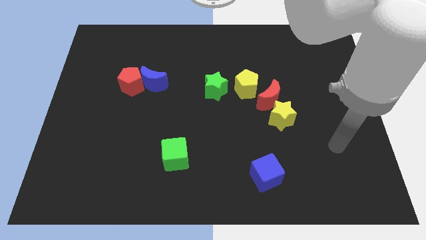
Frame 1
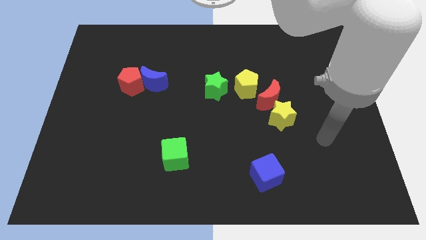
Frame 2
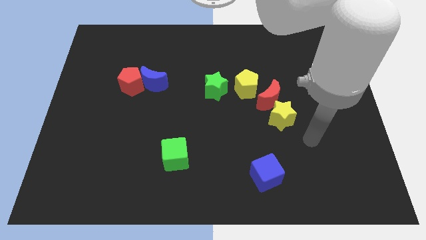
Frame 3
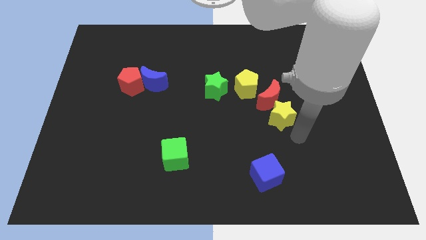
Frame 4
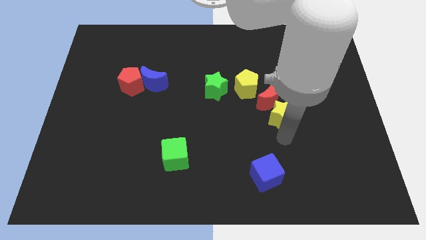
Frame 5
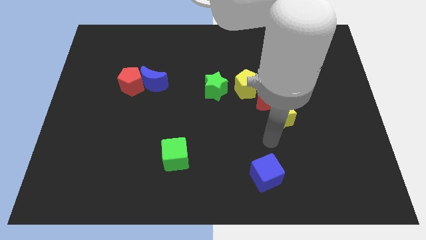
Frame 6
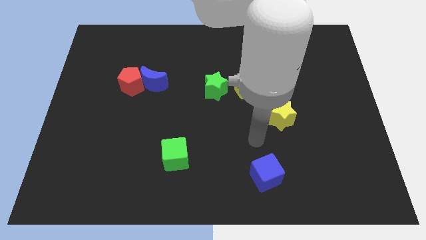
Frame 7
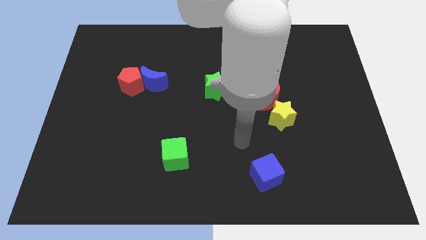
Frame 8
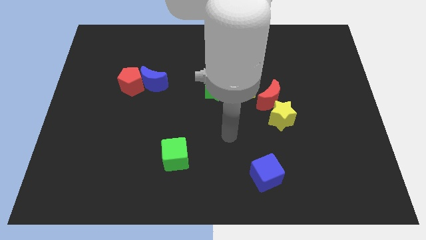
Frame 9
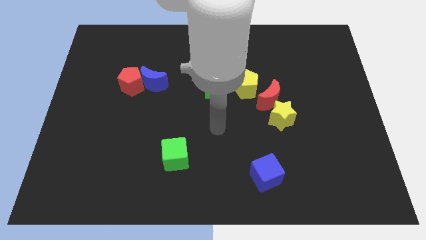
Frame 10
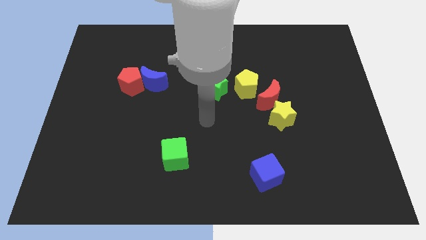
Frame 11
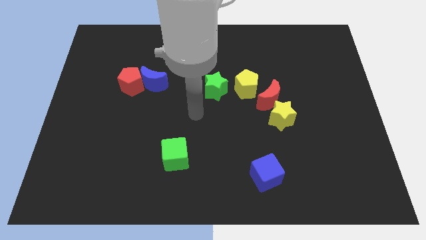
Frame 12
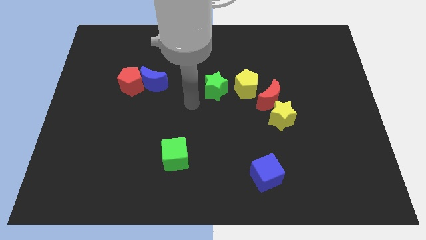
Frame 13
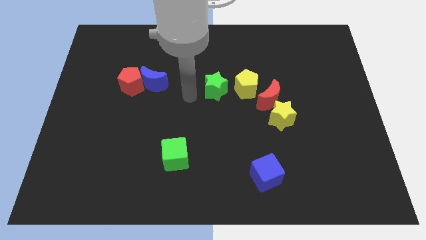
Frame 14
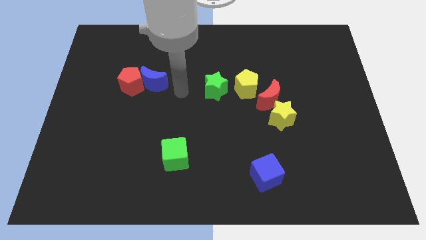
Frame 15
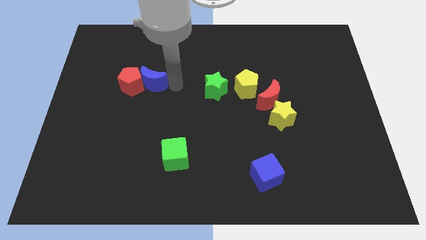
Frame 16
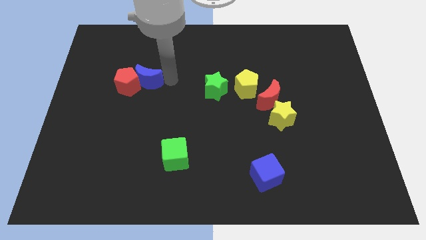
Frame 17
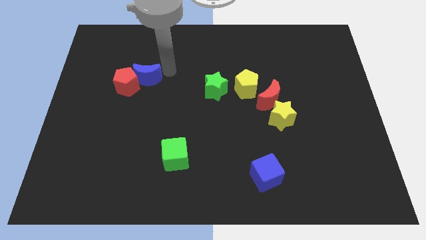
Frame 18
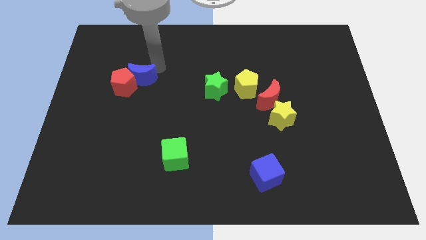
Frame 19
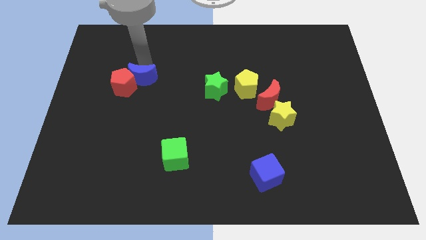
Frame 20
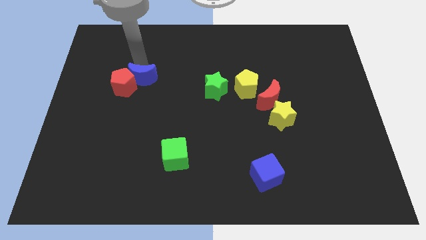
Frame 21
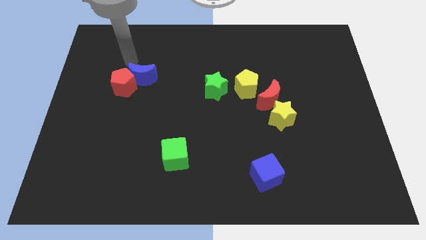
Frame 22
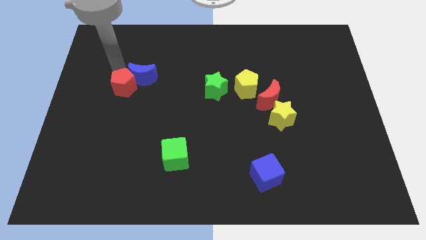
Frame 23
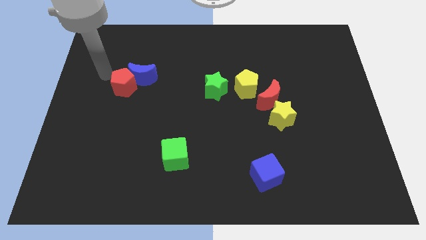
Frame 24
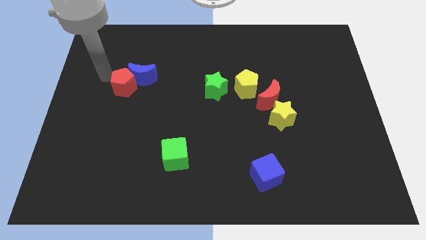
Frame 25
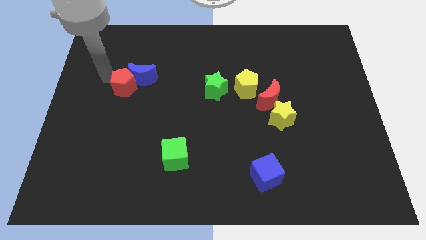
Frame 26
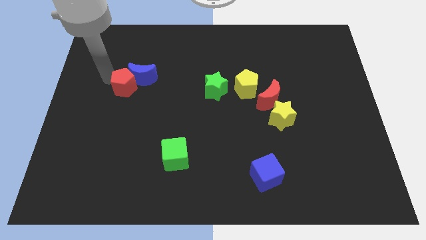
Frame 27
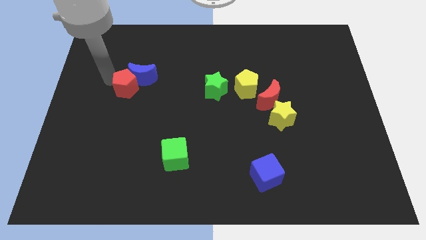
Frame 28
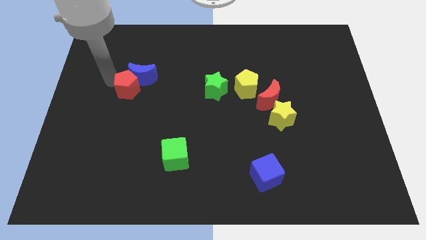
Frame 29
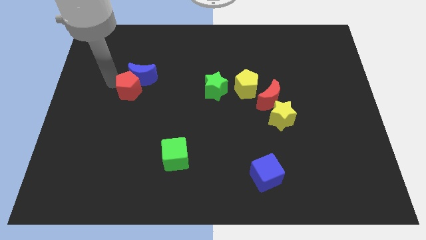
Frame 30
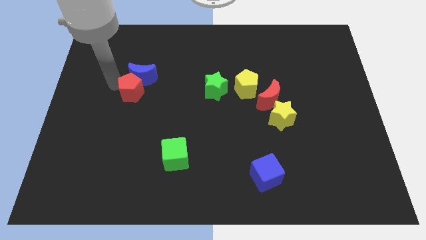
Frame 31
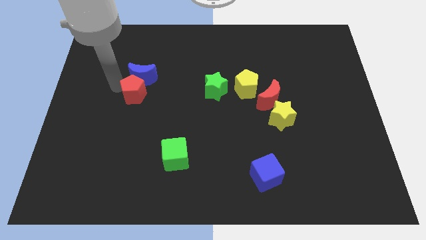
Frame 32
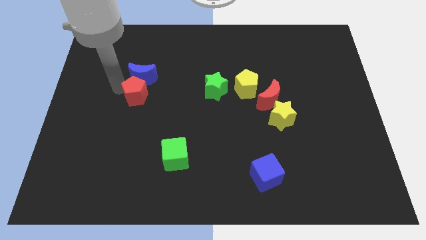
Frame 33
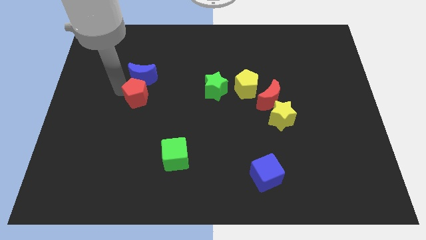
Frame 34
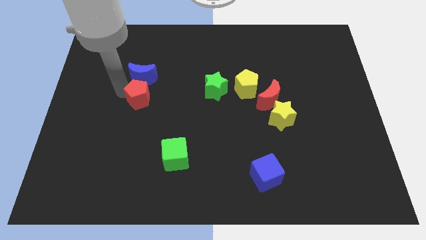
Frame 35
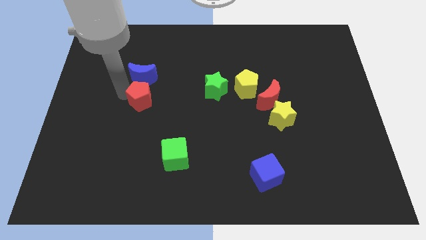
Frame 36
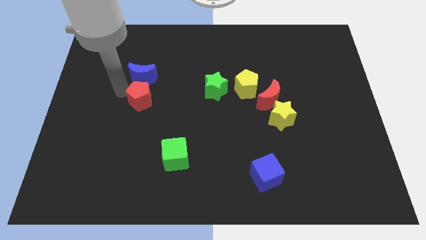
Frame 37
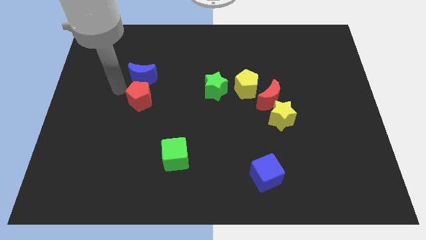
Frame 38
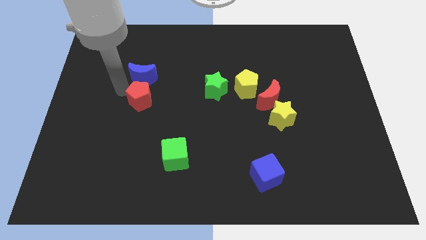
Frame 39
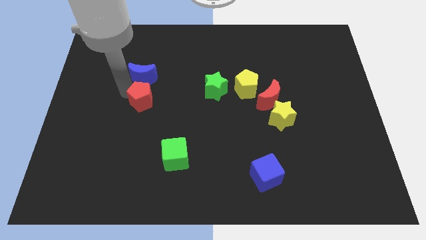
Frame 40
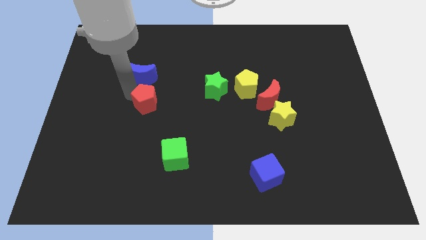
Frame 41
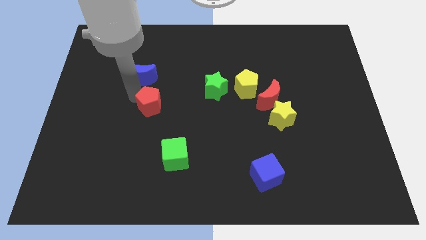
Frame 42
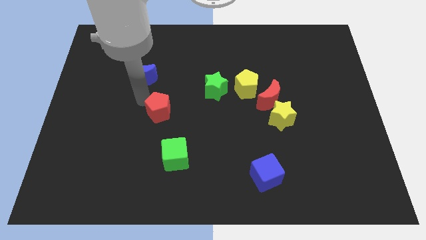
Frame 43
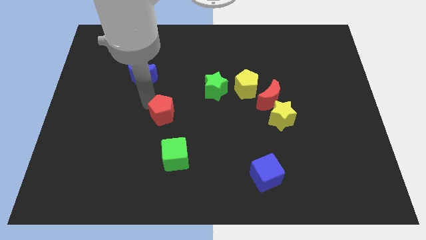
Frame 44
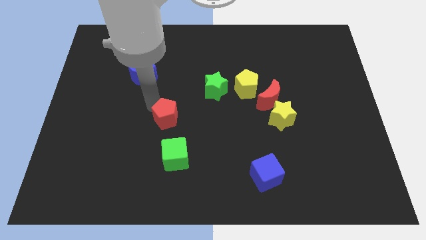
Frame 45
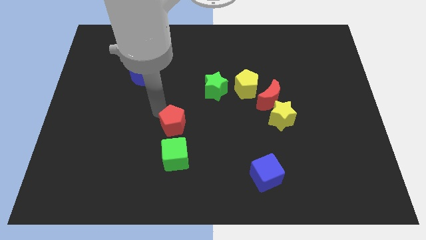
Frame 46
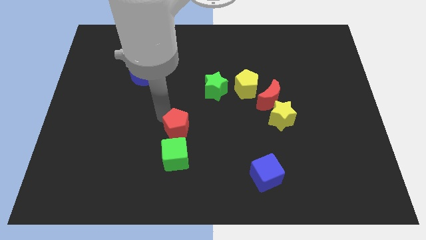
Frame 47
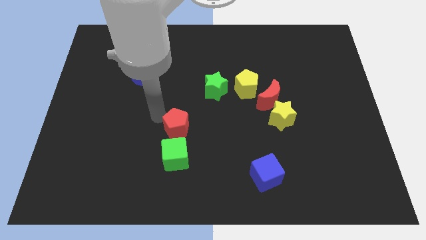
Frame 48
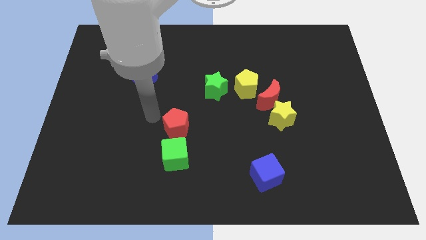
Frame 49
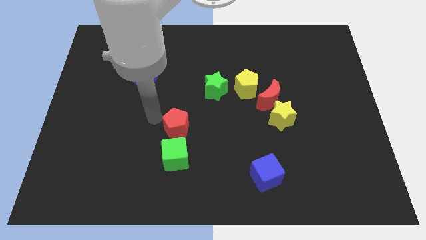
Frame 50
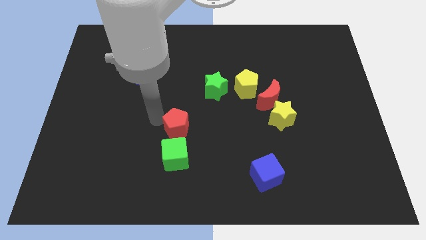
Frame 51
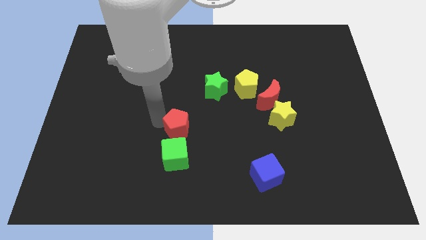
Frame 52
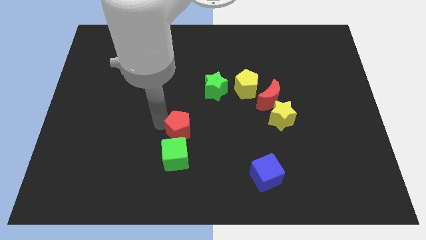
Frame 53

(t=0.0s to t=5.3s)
move the red pentagon to the top right of the green cube

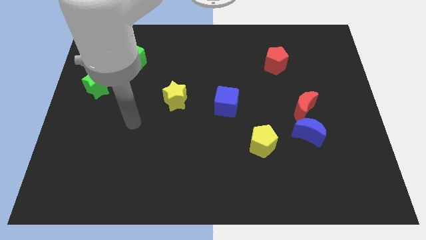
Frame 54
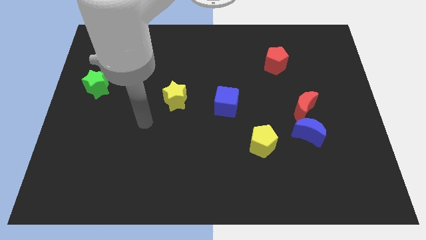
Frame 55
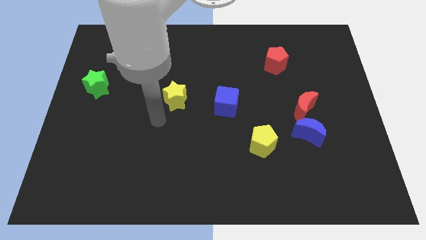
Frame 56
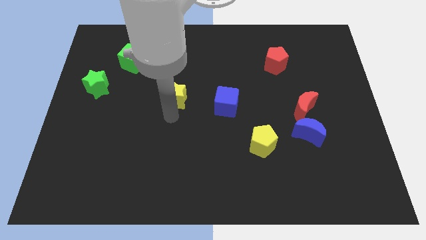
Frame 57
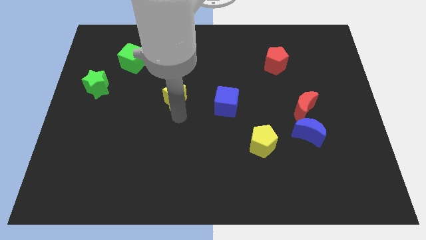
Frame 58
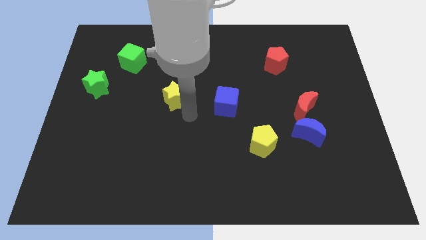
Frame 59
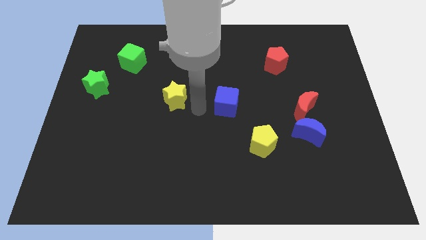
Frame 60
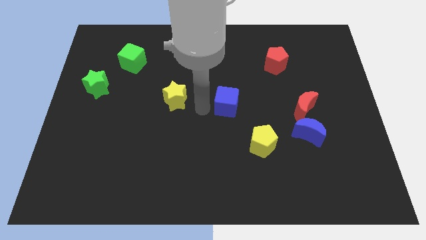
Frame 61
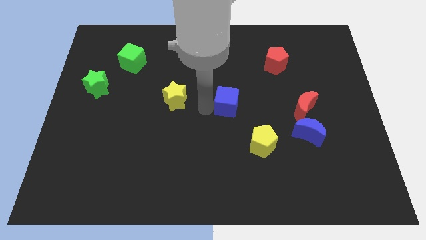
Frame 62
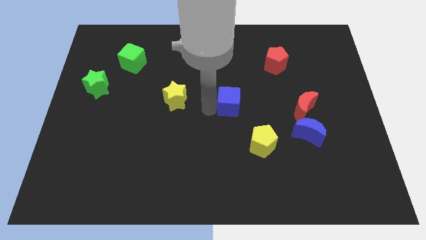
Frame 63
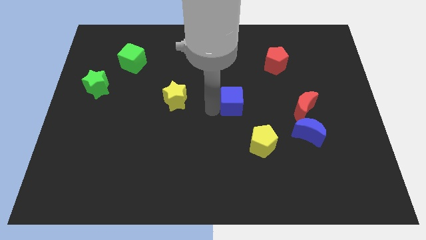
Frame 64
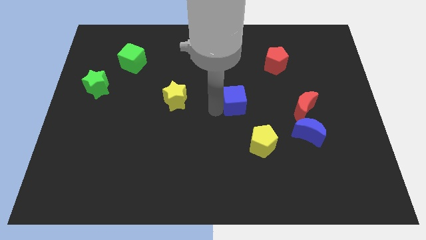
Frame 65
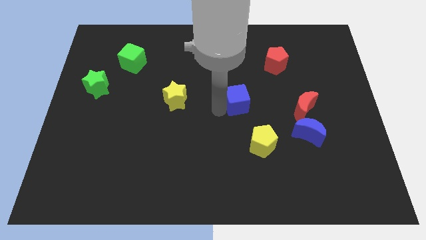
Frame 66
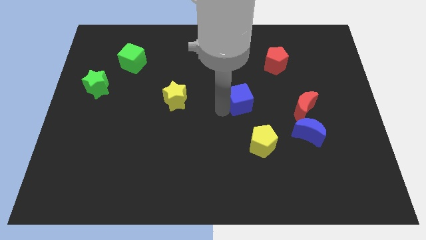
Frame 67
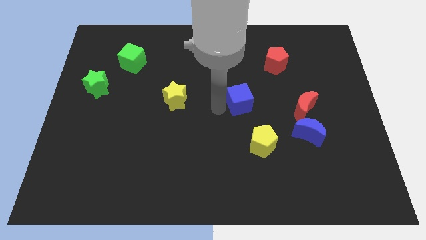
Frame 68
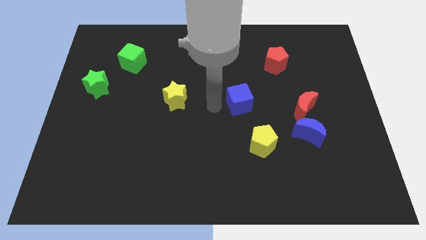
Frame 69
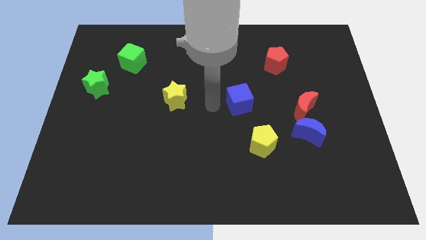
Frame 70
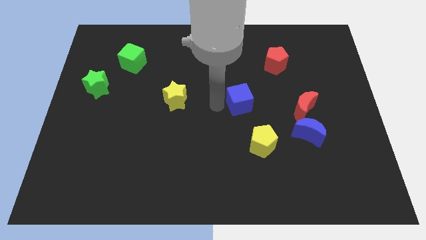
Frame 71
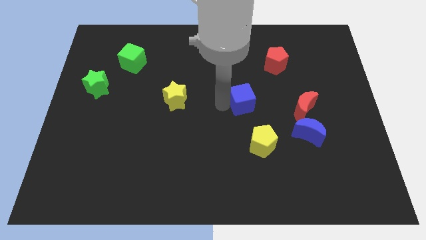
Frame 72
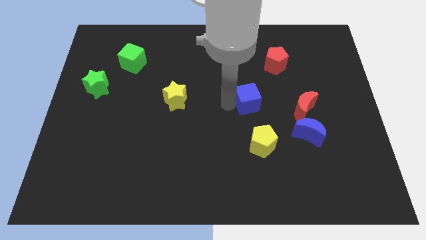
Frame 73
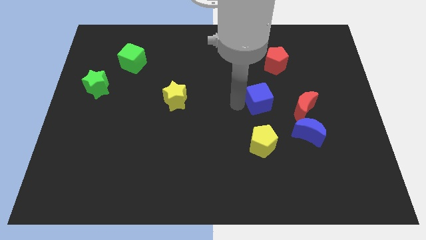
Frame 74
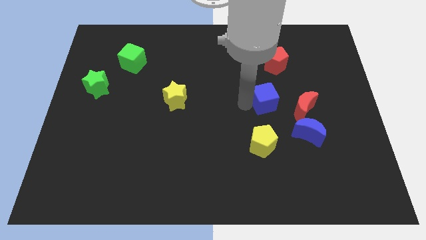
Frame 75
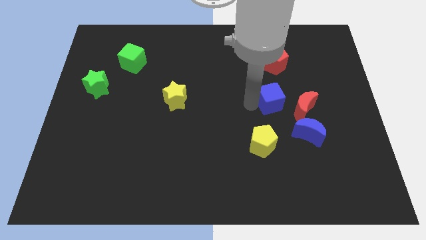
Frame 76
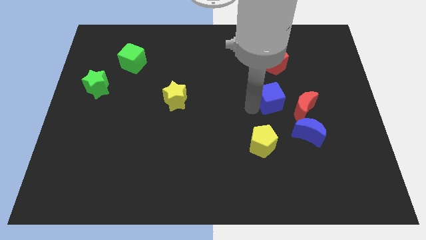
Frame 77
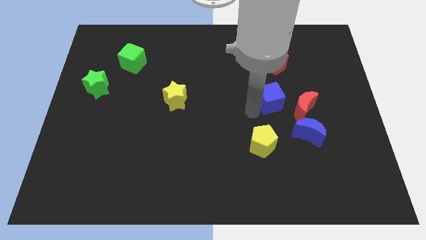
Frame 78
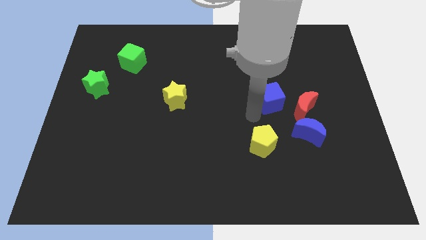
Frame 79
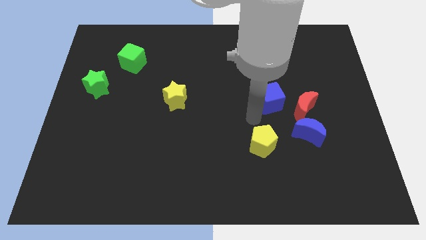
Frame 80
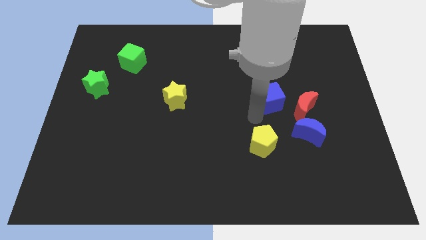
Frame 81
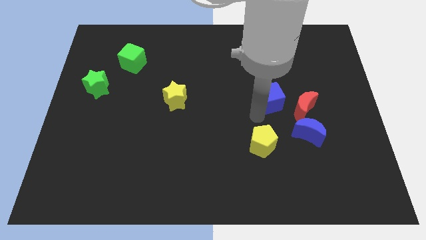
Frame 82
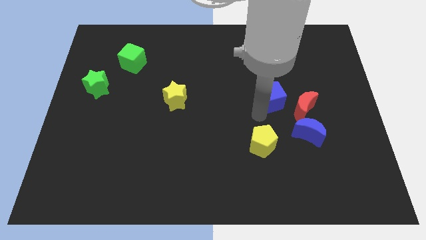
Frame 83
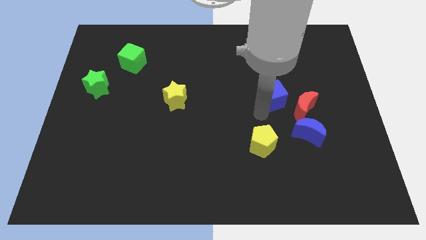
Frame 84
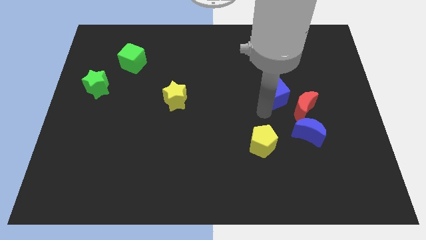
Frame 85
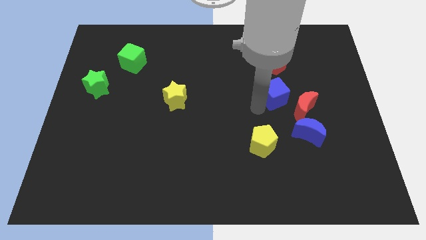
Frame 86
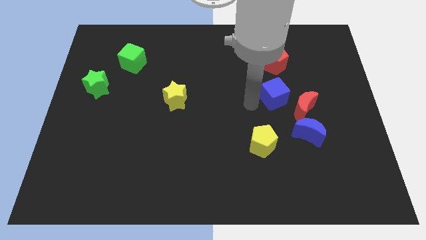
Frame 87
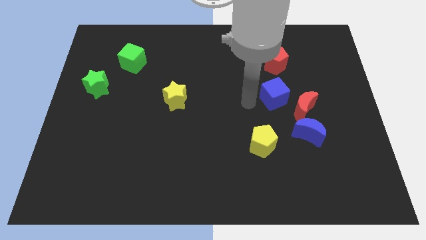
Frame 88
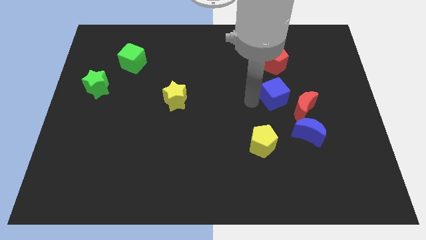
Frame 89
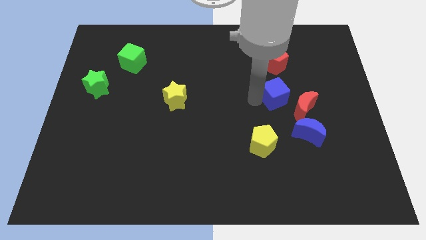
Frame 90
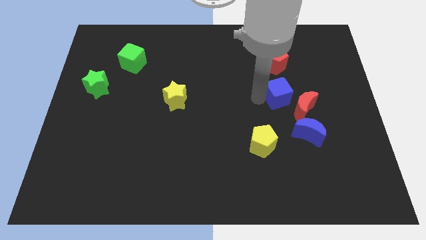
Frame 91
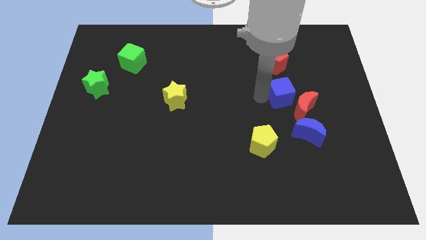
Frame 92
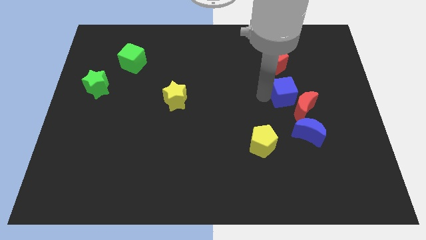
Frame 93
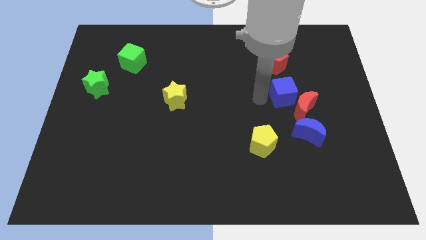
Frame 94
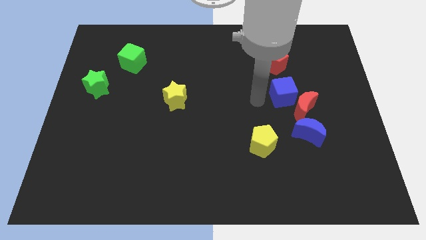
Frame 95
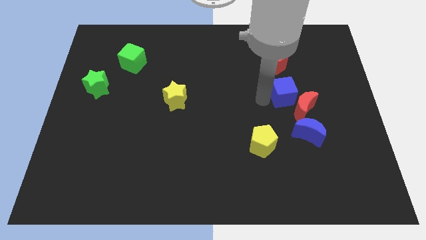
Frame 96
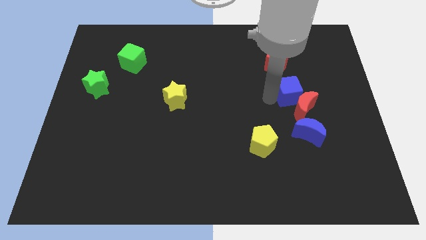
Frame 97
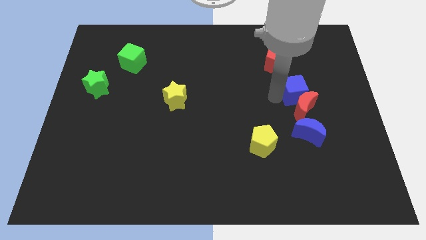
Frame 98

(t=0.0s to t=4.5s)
move the blue cube diagonally up and to the right of the red moon
